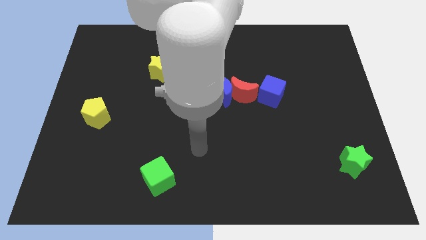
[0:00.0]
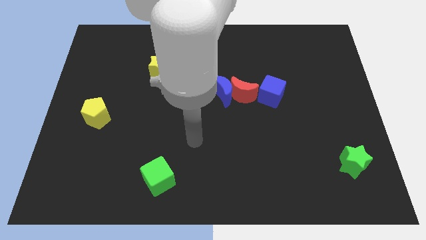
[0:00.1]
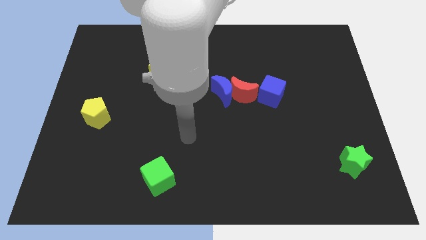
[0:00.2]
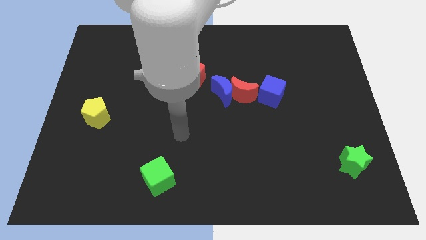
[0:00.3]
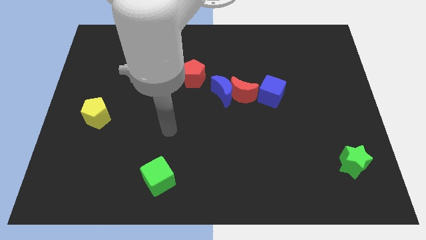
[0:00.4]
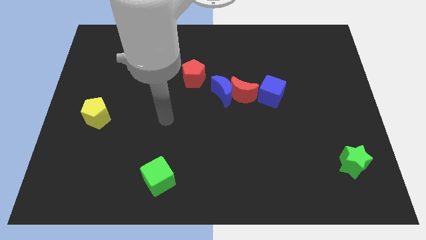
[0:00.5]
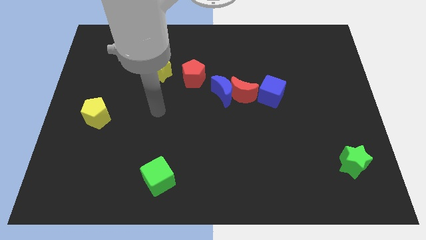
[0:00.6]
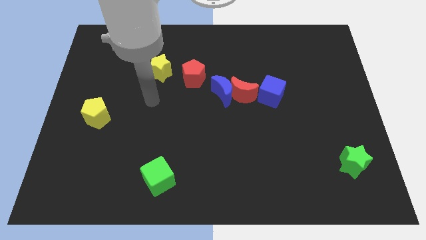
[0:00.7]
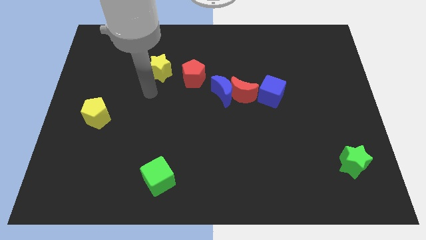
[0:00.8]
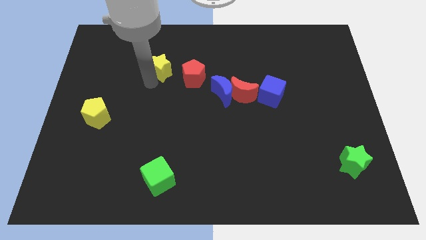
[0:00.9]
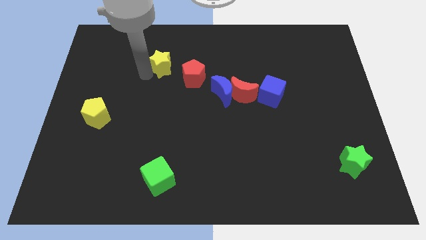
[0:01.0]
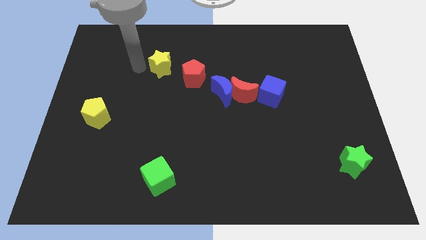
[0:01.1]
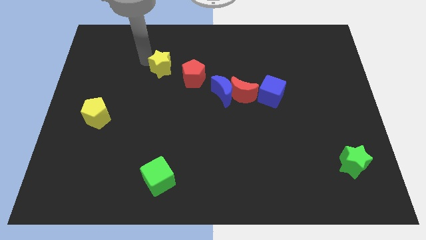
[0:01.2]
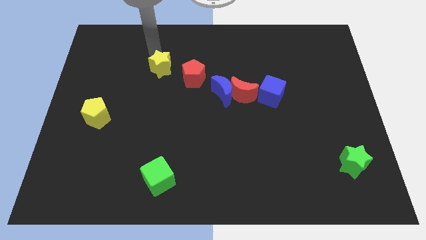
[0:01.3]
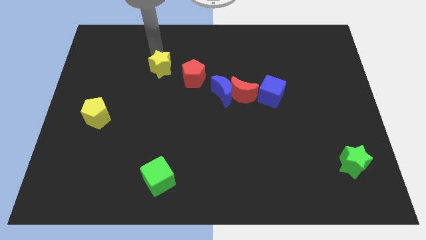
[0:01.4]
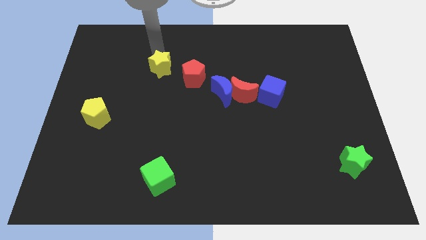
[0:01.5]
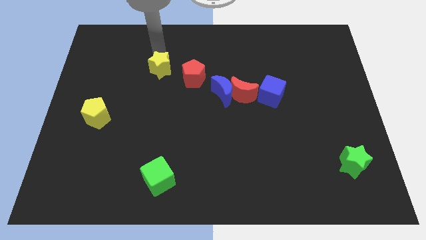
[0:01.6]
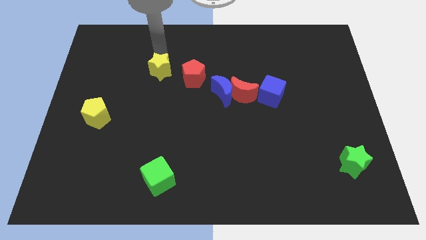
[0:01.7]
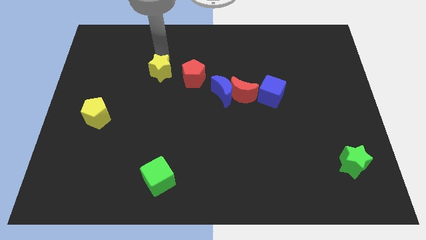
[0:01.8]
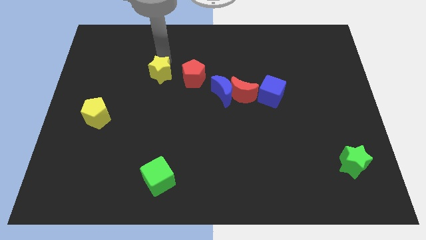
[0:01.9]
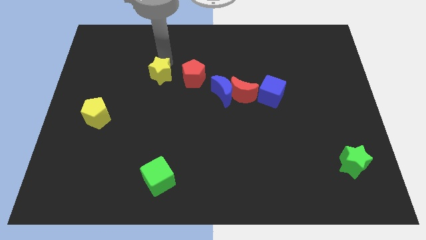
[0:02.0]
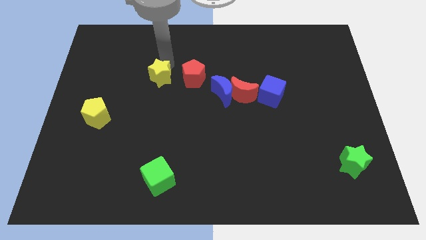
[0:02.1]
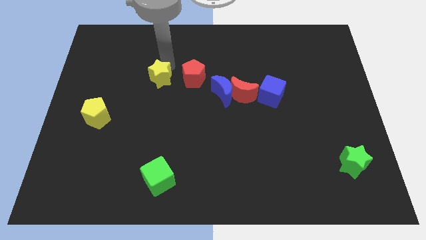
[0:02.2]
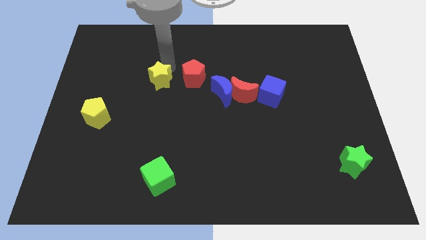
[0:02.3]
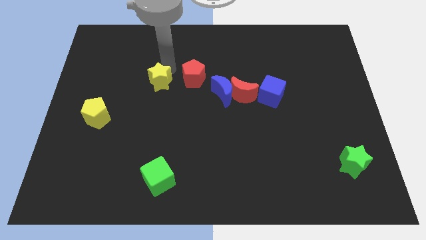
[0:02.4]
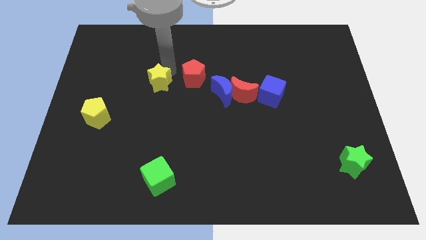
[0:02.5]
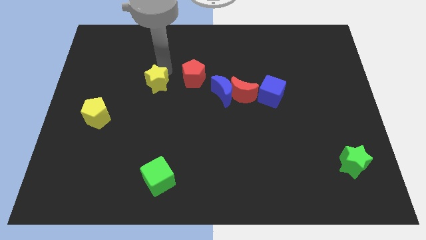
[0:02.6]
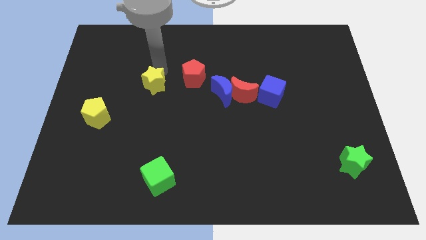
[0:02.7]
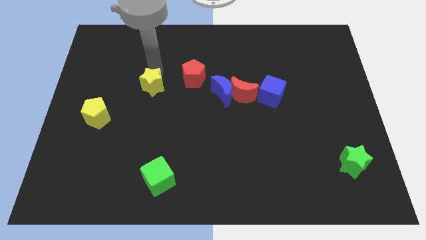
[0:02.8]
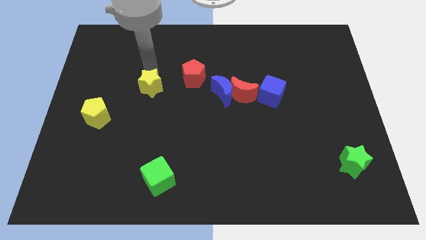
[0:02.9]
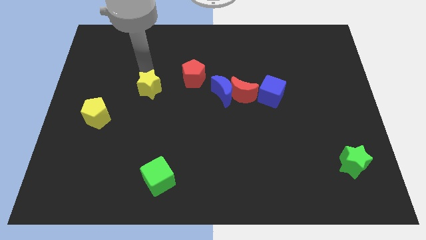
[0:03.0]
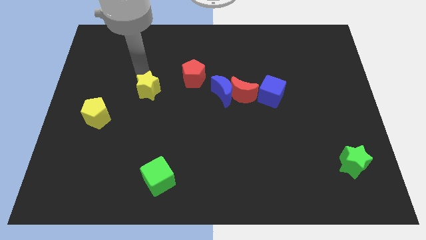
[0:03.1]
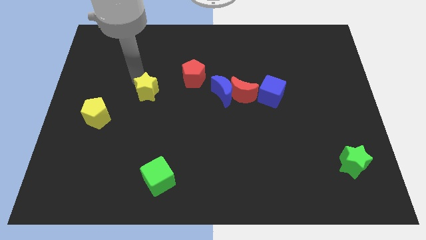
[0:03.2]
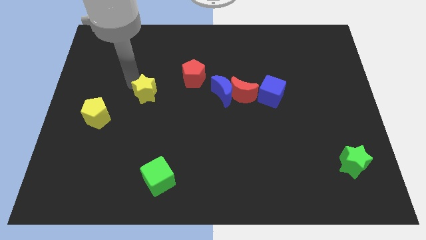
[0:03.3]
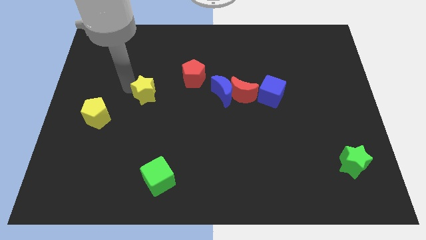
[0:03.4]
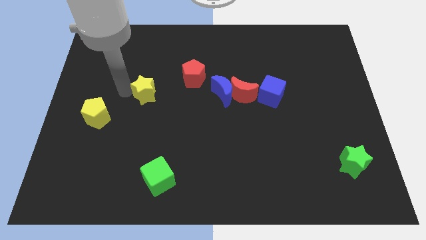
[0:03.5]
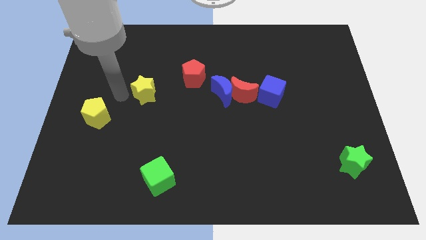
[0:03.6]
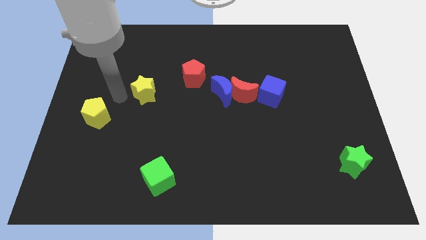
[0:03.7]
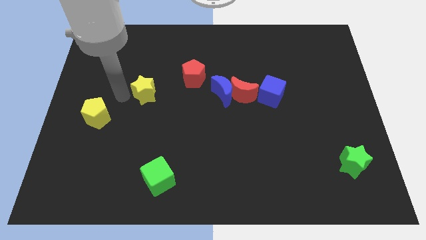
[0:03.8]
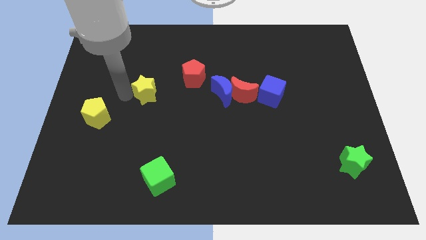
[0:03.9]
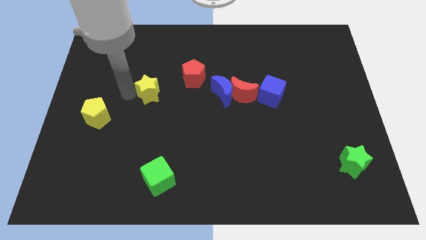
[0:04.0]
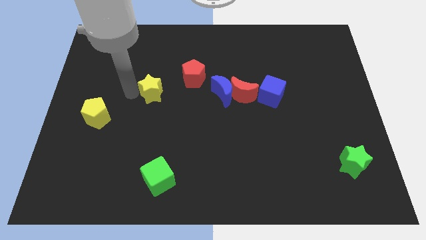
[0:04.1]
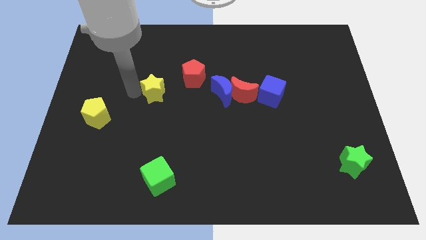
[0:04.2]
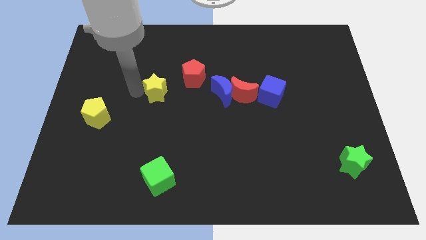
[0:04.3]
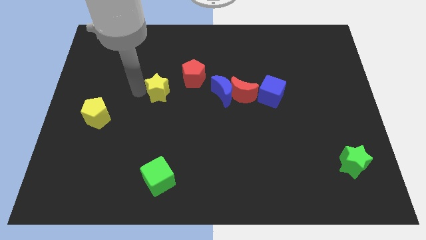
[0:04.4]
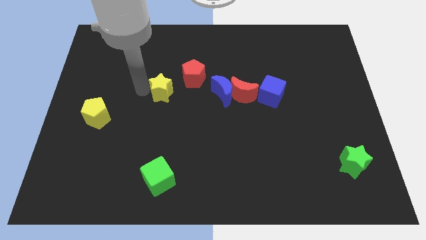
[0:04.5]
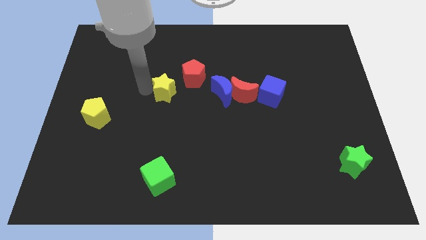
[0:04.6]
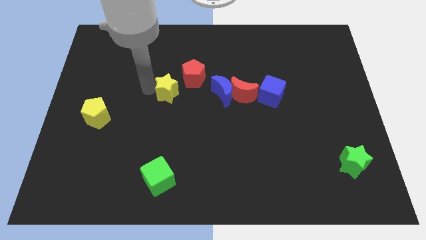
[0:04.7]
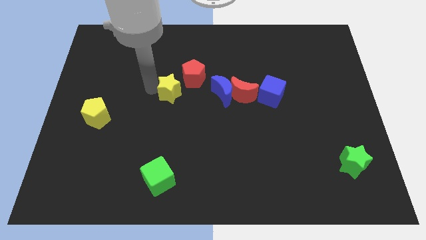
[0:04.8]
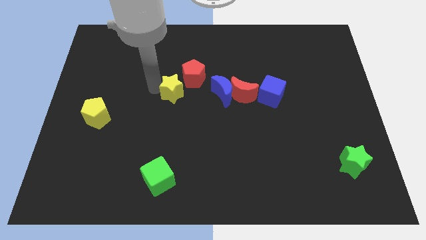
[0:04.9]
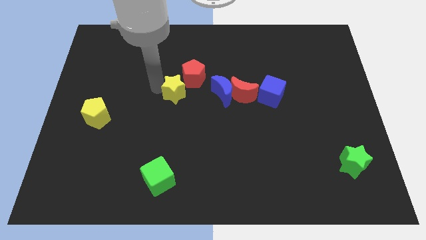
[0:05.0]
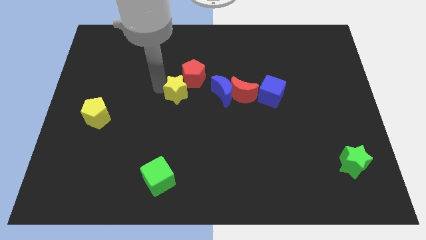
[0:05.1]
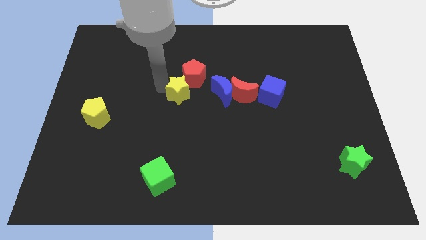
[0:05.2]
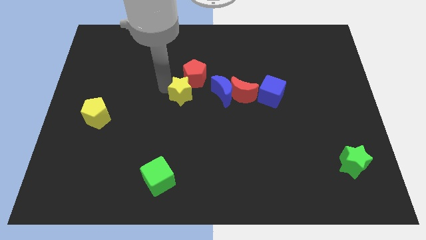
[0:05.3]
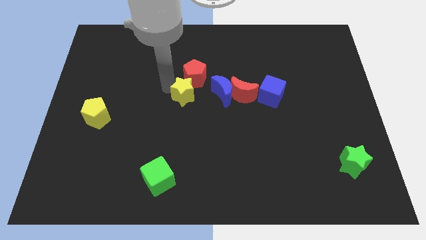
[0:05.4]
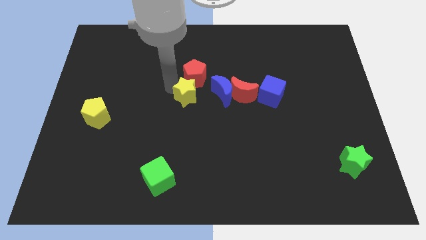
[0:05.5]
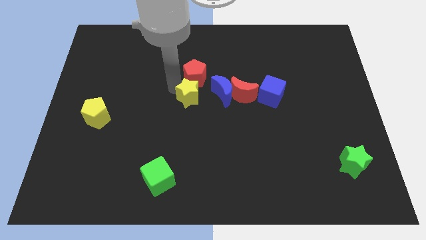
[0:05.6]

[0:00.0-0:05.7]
move the yellow star to the bottom left side of the blue moon

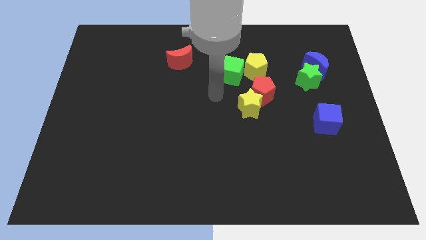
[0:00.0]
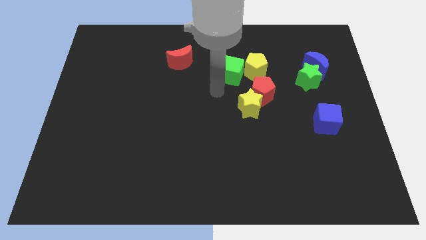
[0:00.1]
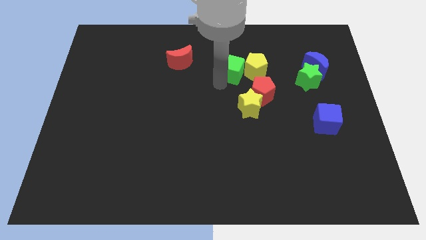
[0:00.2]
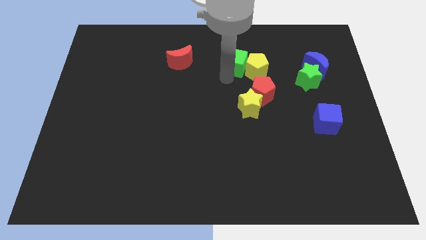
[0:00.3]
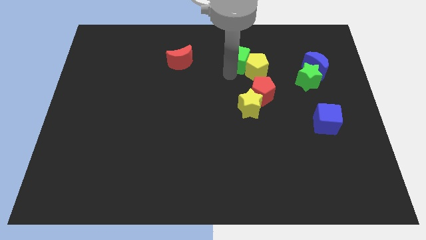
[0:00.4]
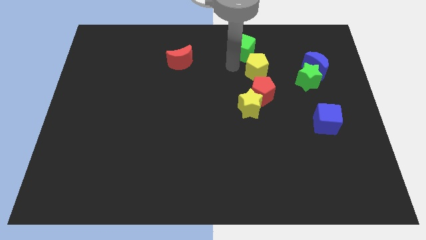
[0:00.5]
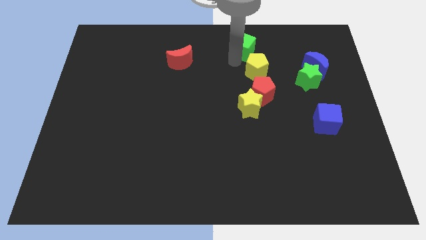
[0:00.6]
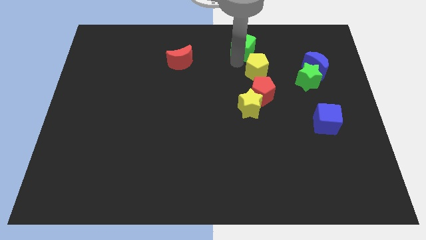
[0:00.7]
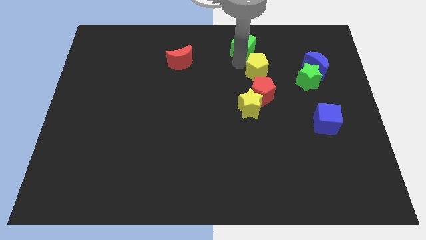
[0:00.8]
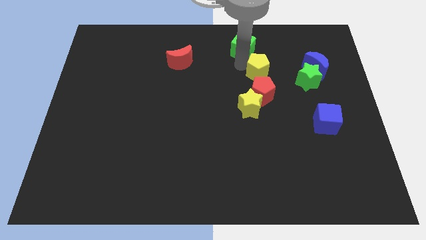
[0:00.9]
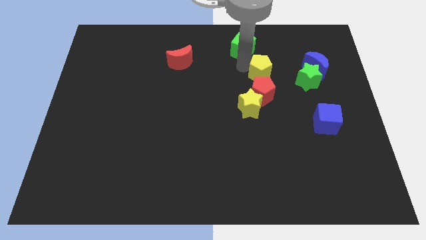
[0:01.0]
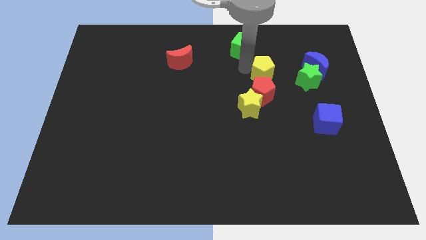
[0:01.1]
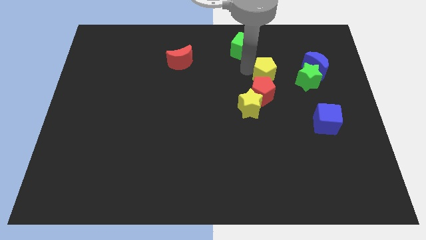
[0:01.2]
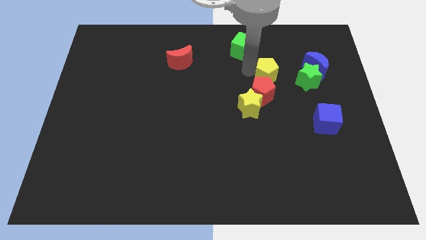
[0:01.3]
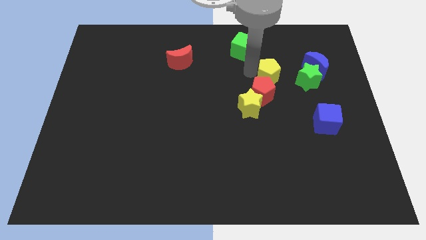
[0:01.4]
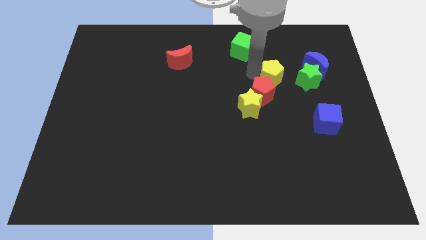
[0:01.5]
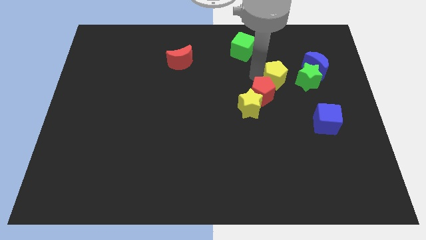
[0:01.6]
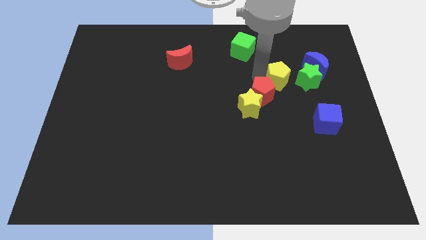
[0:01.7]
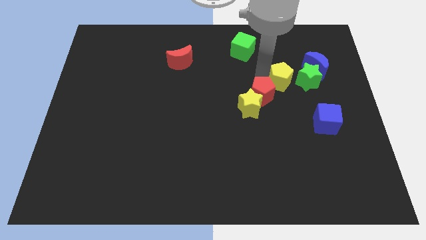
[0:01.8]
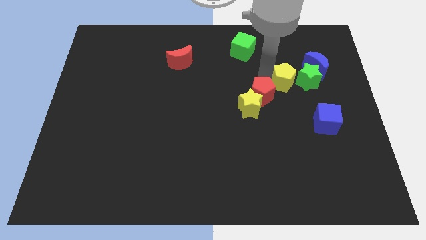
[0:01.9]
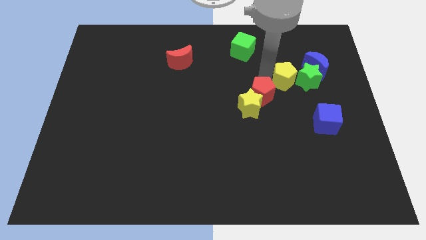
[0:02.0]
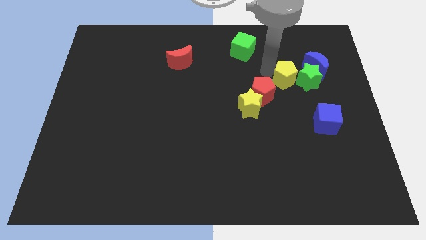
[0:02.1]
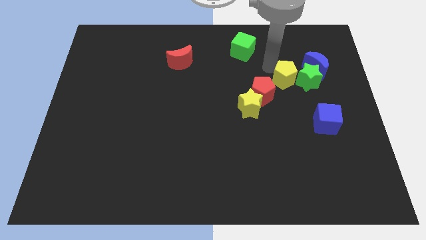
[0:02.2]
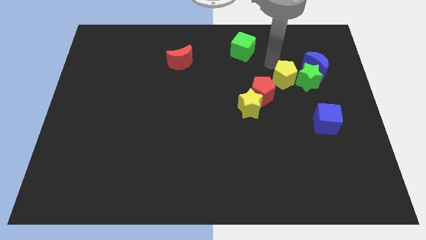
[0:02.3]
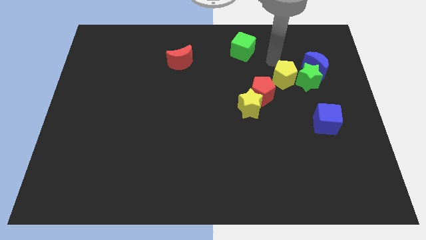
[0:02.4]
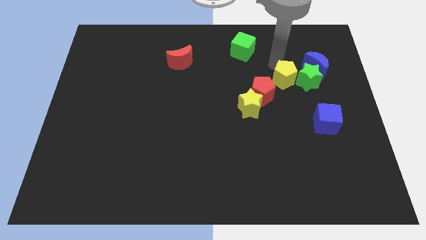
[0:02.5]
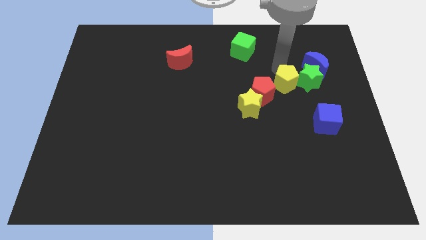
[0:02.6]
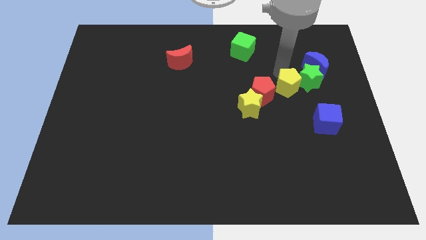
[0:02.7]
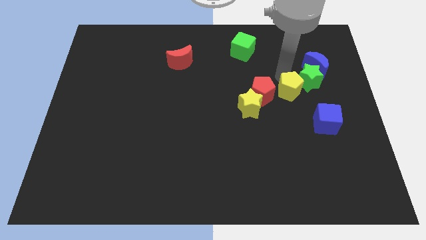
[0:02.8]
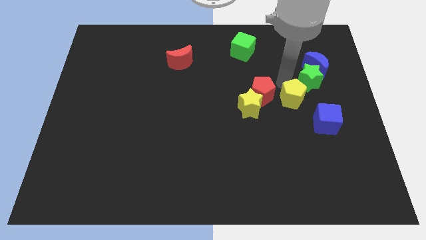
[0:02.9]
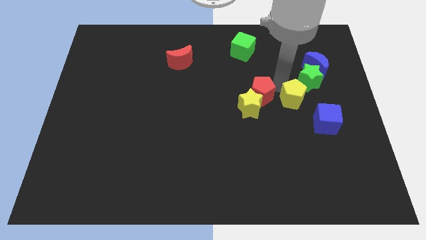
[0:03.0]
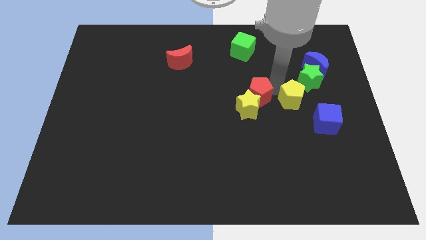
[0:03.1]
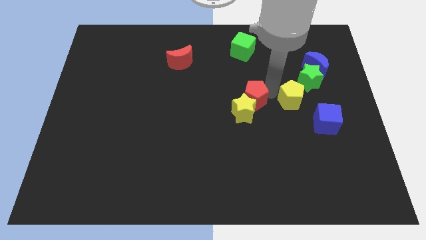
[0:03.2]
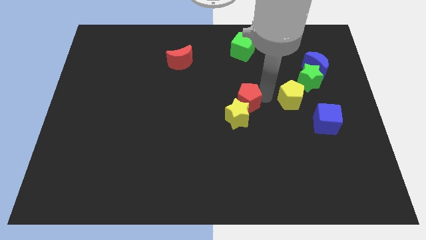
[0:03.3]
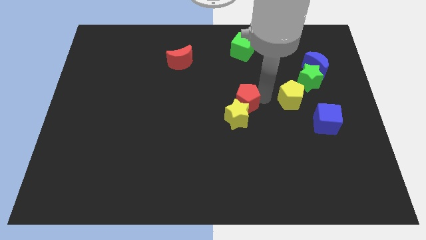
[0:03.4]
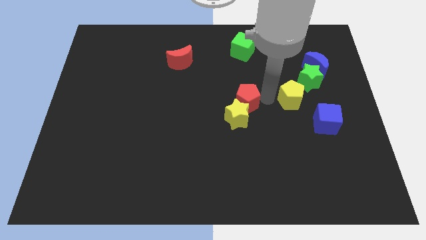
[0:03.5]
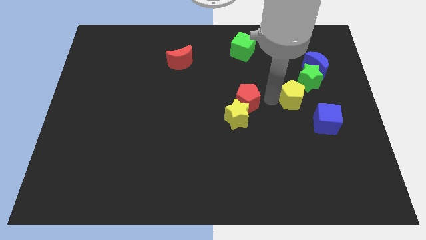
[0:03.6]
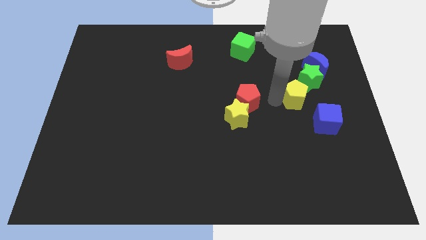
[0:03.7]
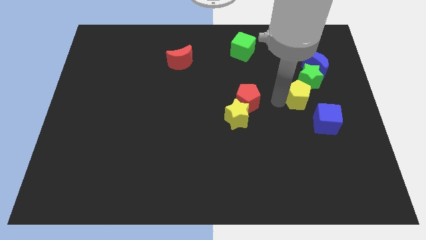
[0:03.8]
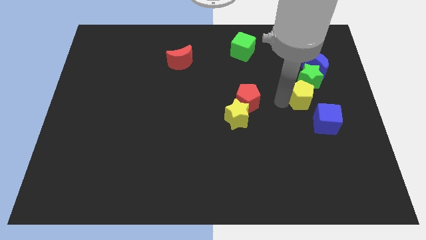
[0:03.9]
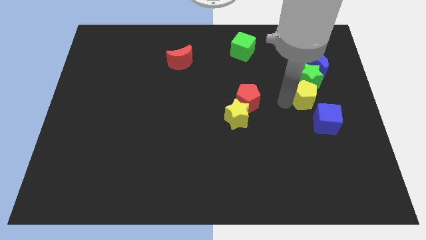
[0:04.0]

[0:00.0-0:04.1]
slide the yellow pentagon to the bottom of the blue moon
